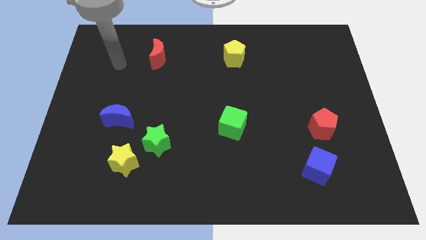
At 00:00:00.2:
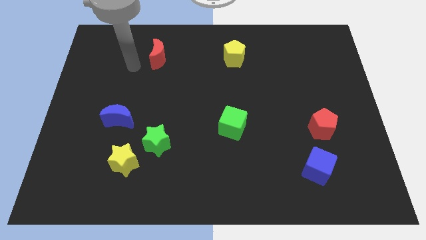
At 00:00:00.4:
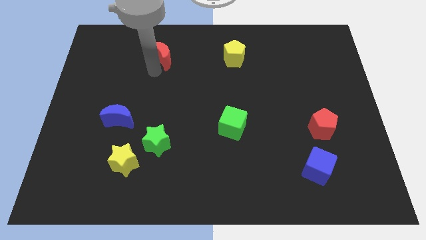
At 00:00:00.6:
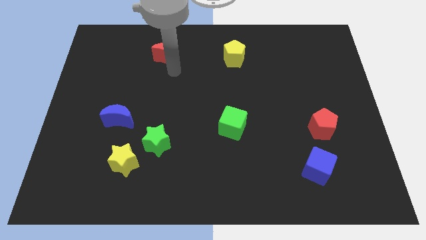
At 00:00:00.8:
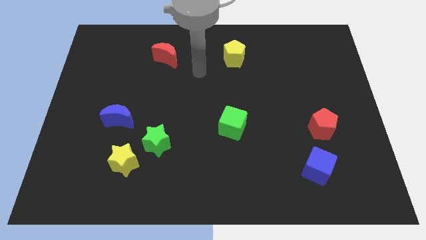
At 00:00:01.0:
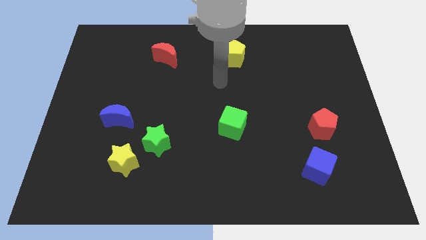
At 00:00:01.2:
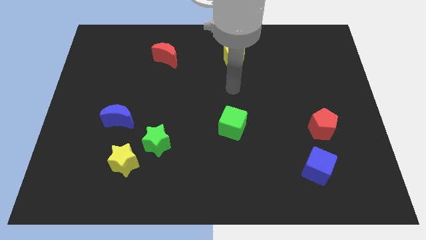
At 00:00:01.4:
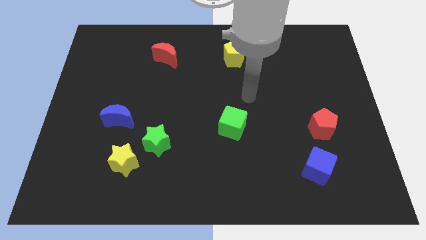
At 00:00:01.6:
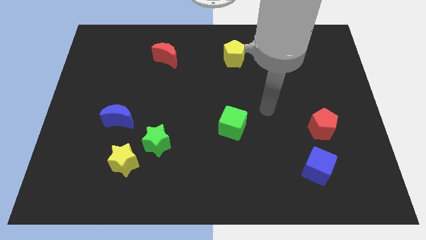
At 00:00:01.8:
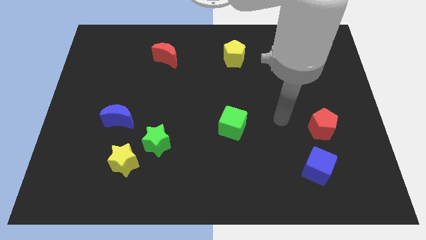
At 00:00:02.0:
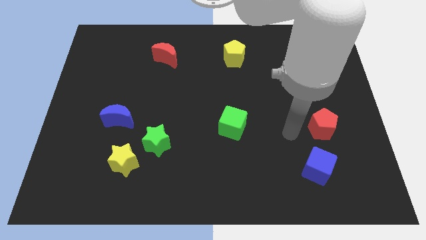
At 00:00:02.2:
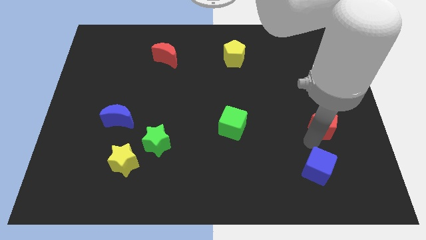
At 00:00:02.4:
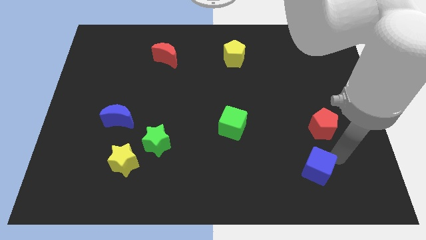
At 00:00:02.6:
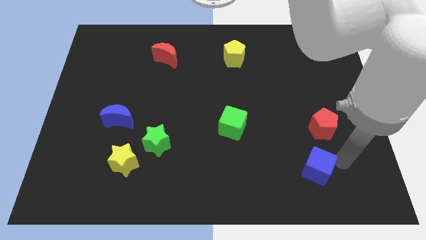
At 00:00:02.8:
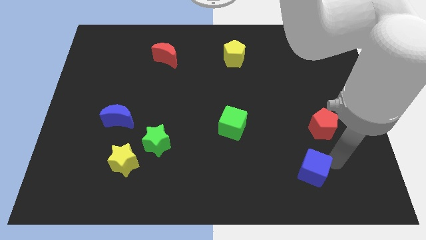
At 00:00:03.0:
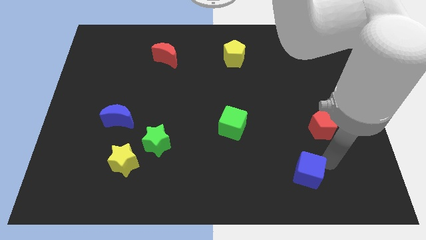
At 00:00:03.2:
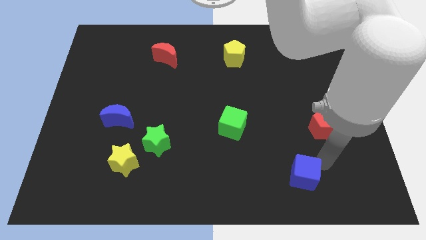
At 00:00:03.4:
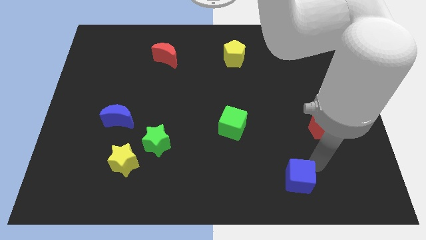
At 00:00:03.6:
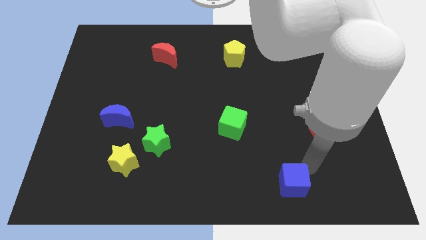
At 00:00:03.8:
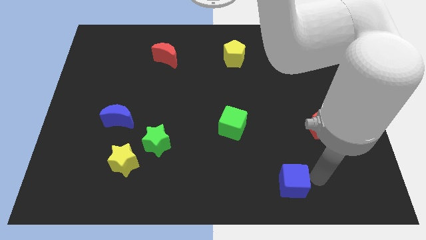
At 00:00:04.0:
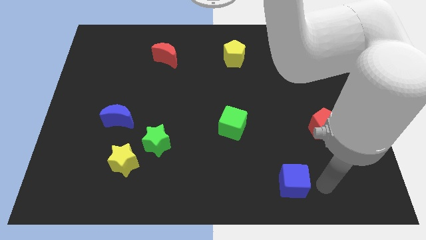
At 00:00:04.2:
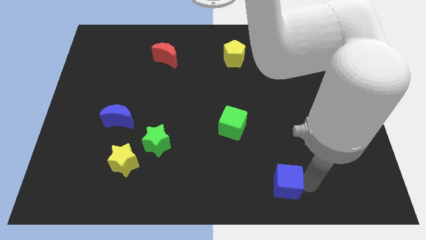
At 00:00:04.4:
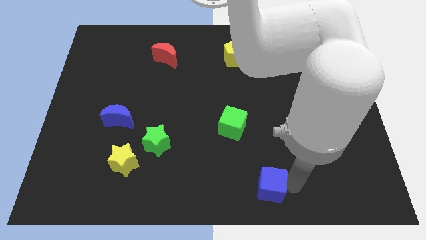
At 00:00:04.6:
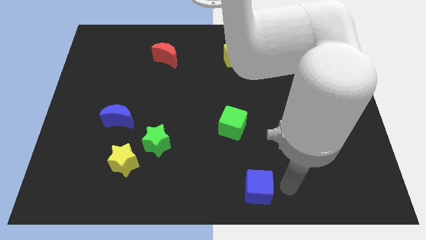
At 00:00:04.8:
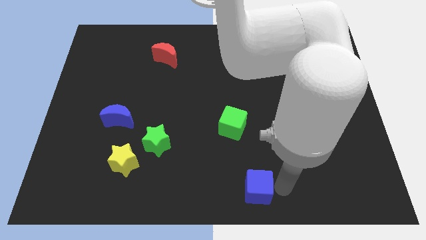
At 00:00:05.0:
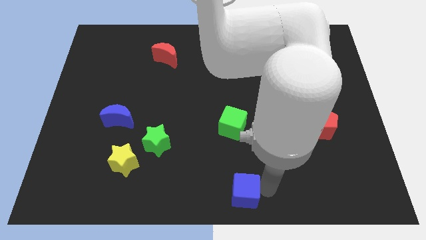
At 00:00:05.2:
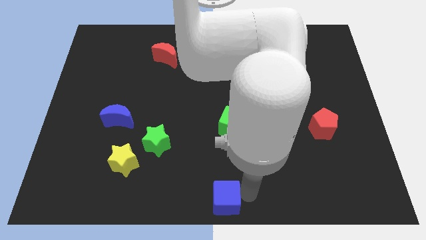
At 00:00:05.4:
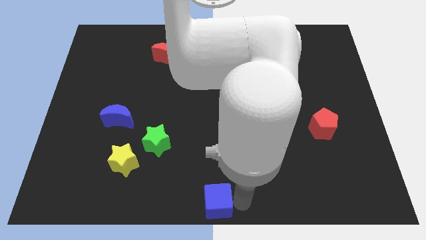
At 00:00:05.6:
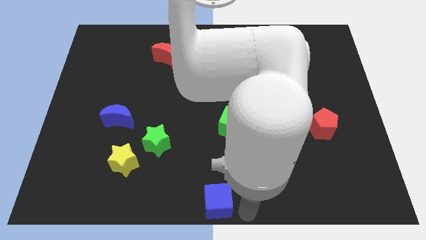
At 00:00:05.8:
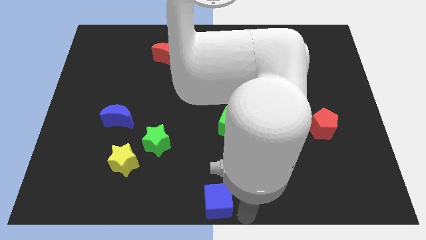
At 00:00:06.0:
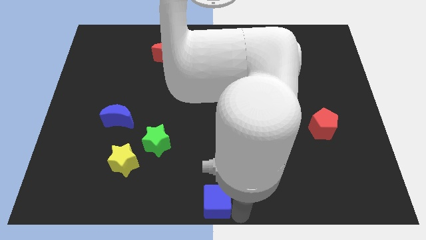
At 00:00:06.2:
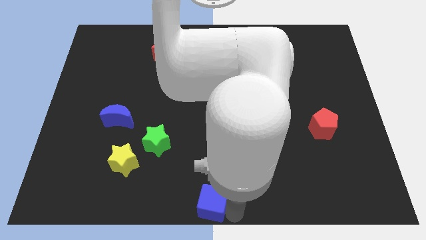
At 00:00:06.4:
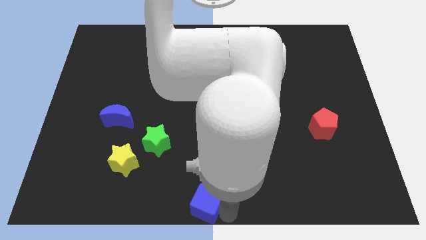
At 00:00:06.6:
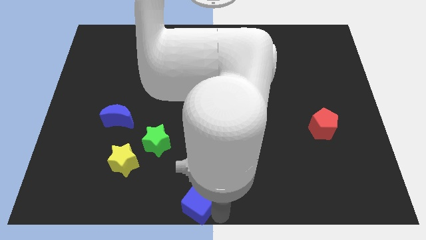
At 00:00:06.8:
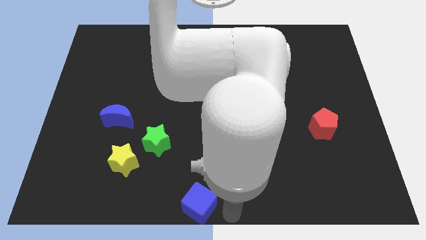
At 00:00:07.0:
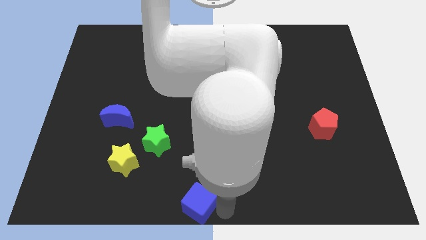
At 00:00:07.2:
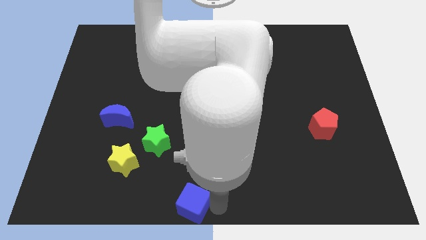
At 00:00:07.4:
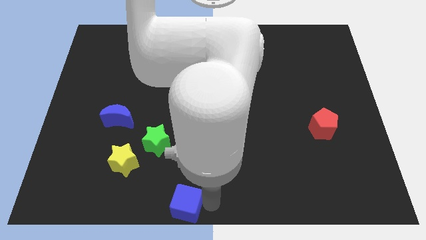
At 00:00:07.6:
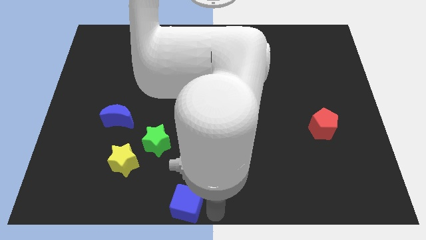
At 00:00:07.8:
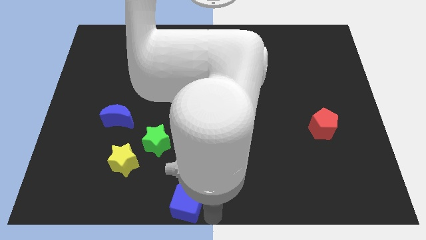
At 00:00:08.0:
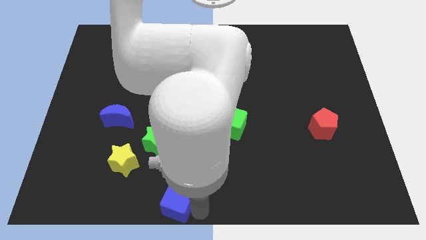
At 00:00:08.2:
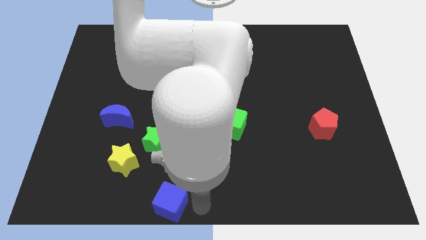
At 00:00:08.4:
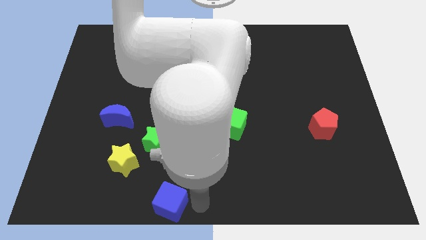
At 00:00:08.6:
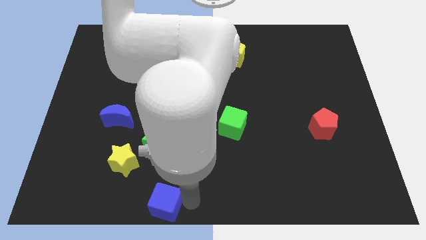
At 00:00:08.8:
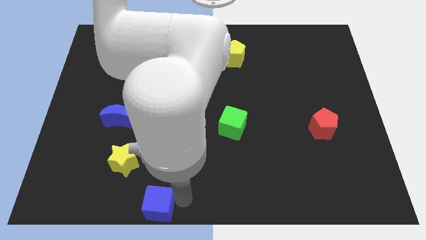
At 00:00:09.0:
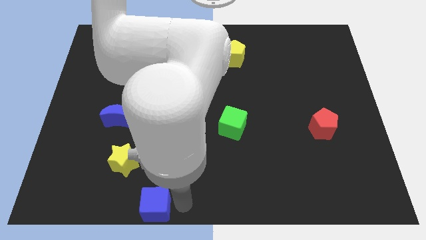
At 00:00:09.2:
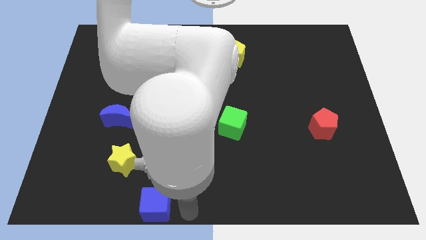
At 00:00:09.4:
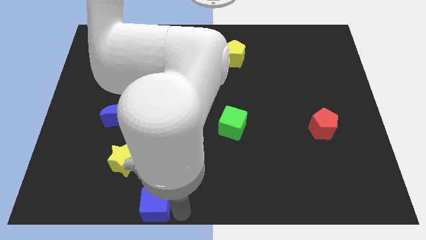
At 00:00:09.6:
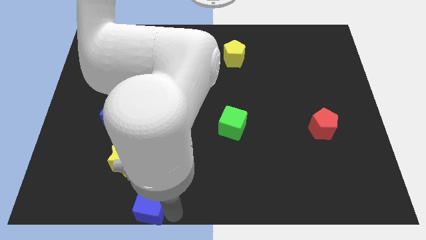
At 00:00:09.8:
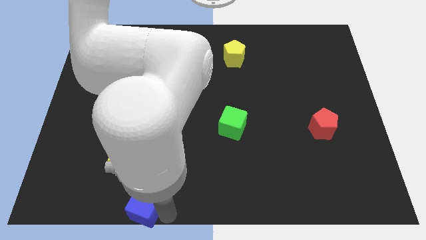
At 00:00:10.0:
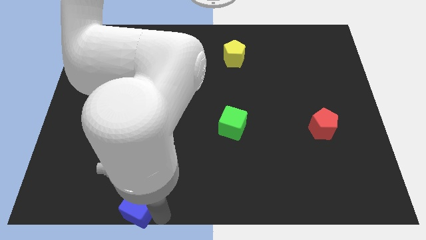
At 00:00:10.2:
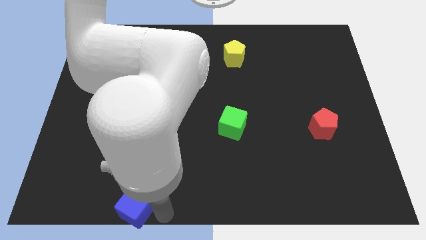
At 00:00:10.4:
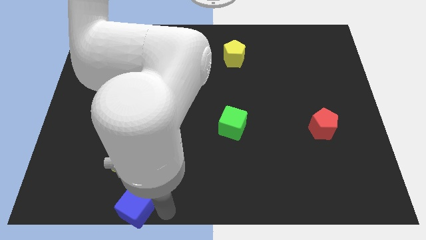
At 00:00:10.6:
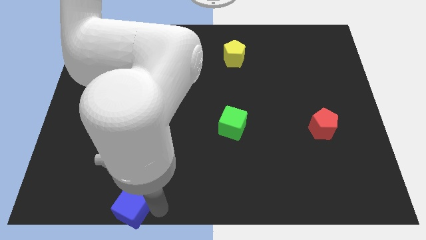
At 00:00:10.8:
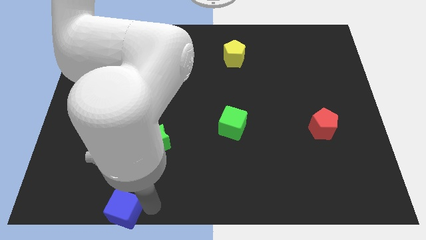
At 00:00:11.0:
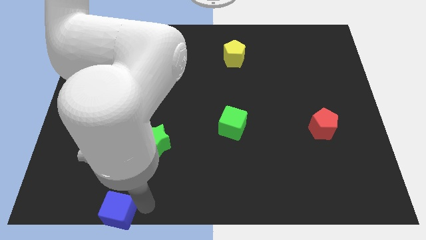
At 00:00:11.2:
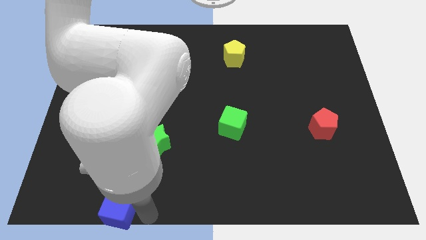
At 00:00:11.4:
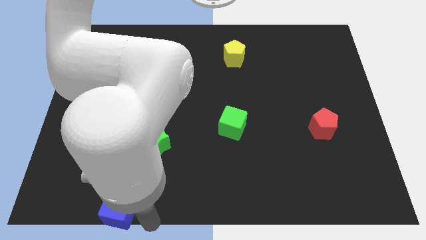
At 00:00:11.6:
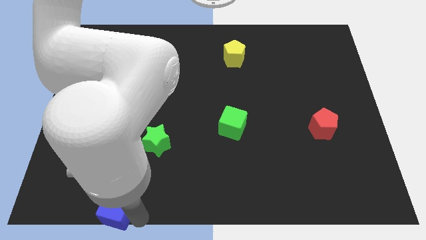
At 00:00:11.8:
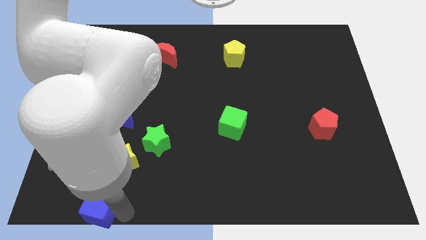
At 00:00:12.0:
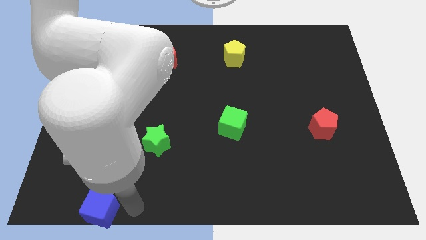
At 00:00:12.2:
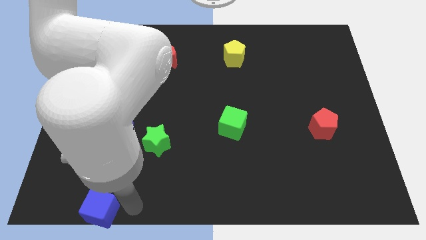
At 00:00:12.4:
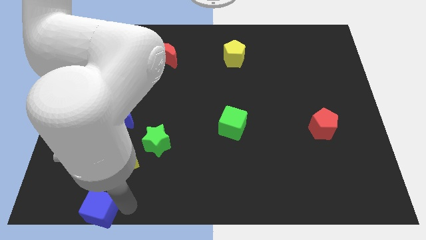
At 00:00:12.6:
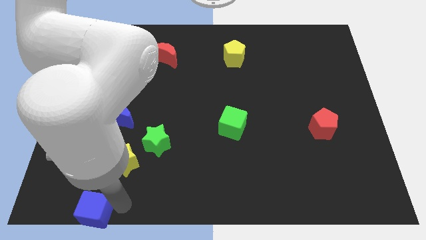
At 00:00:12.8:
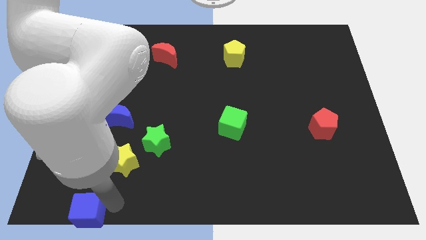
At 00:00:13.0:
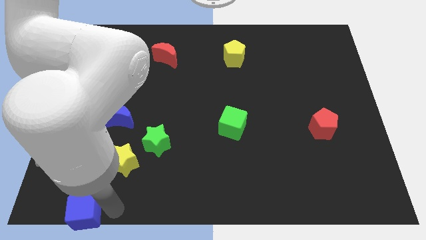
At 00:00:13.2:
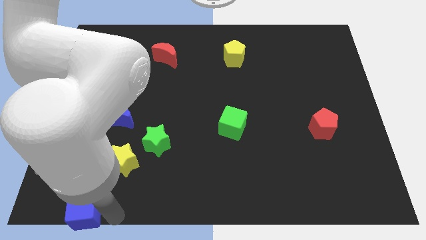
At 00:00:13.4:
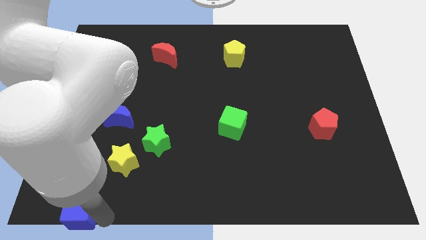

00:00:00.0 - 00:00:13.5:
put the blue cube to the bottom left
